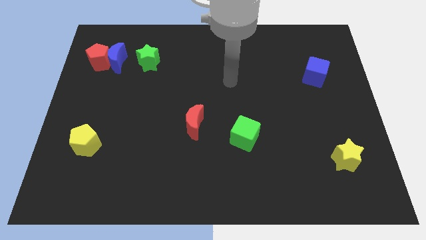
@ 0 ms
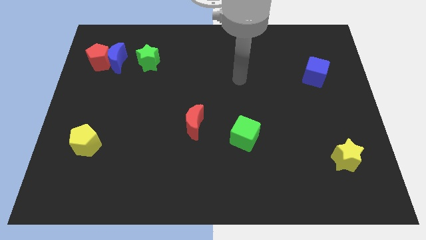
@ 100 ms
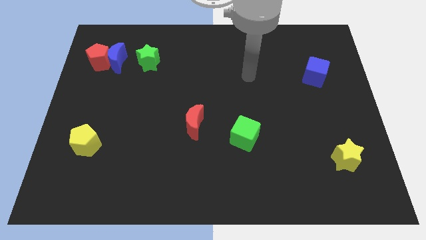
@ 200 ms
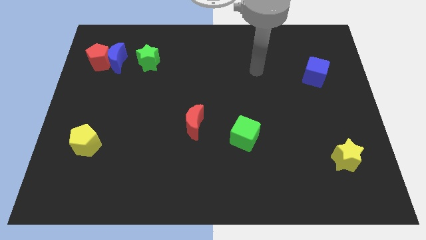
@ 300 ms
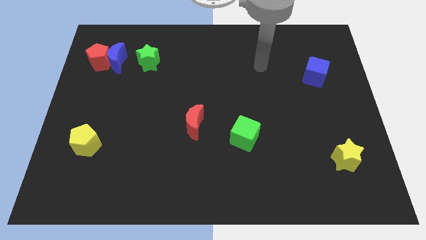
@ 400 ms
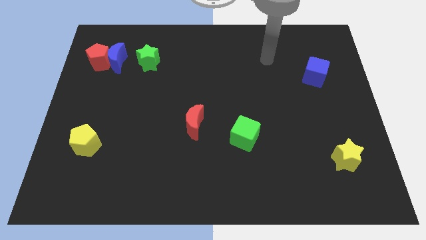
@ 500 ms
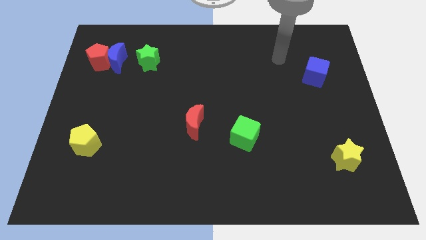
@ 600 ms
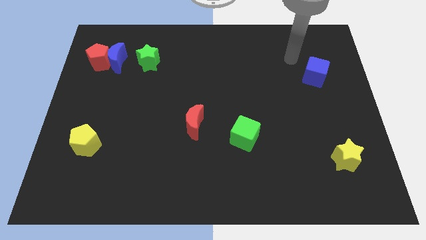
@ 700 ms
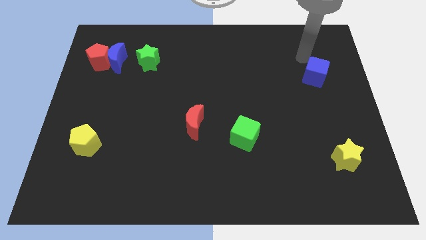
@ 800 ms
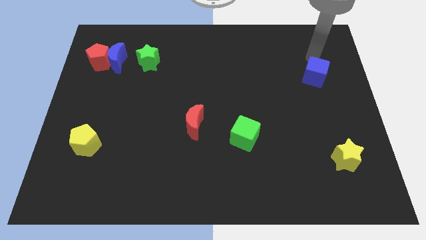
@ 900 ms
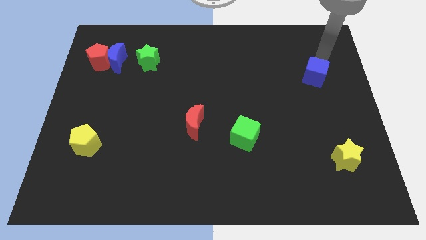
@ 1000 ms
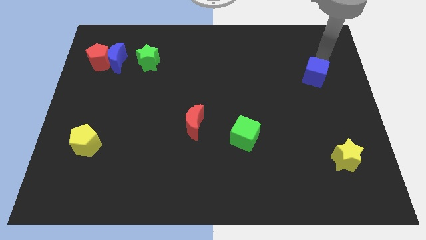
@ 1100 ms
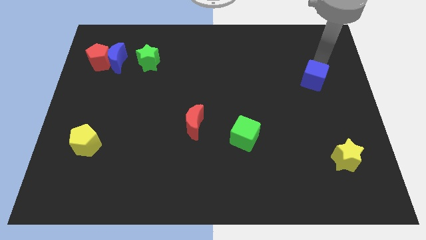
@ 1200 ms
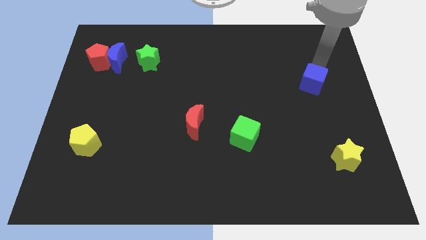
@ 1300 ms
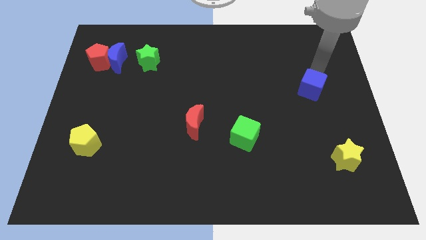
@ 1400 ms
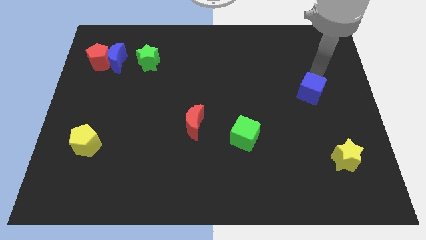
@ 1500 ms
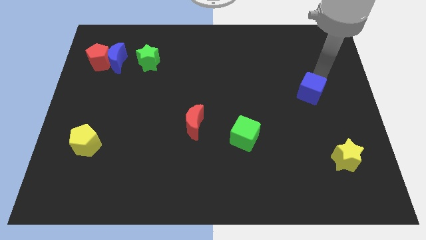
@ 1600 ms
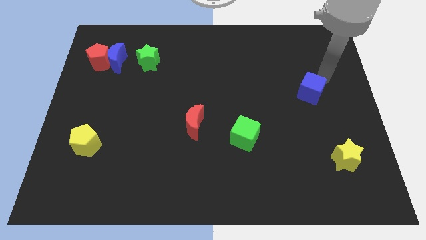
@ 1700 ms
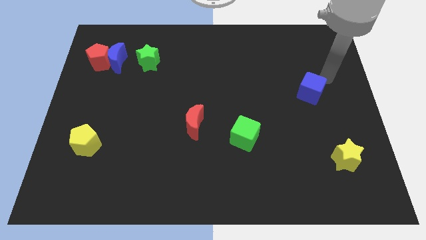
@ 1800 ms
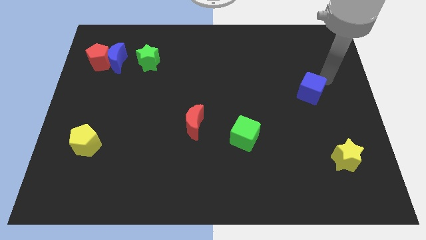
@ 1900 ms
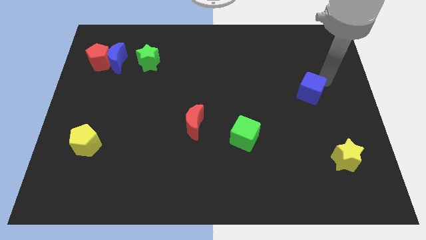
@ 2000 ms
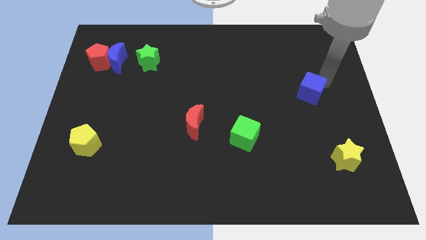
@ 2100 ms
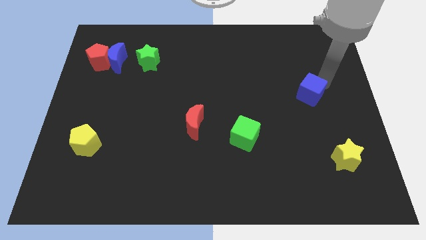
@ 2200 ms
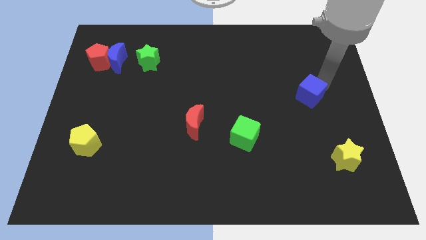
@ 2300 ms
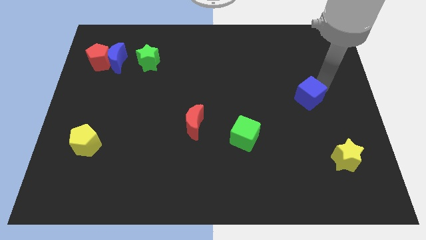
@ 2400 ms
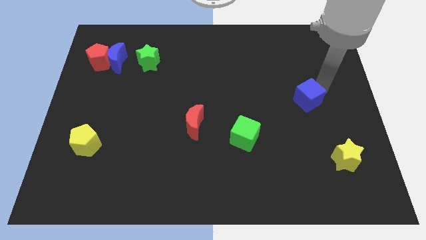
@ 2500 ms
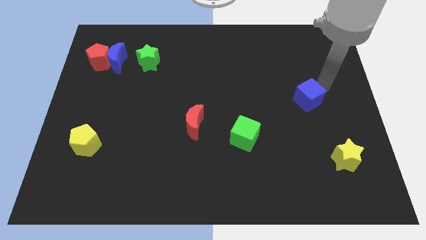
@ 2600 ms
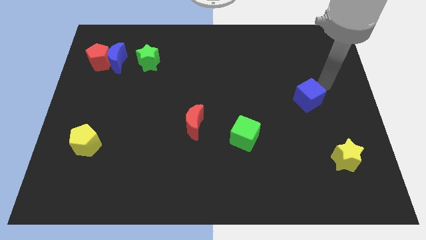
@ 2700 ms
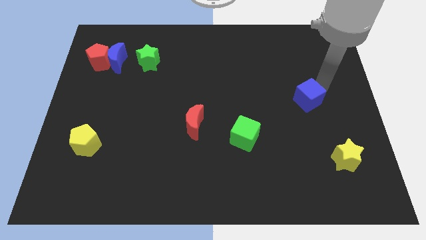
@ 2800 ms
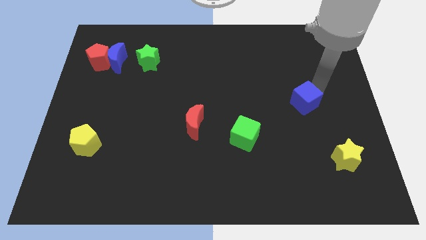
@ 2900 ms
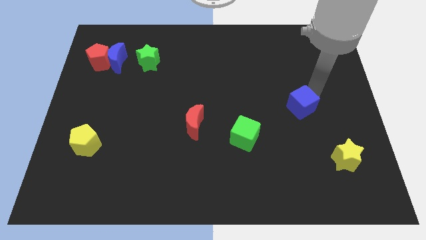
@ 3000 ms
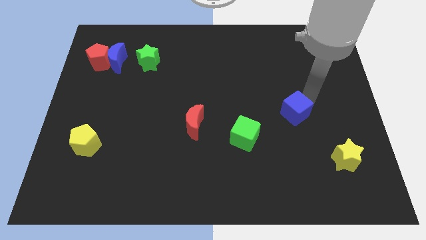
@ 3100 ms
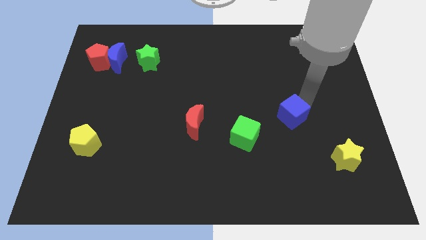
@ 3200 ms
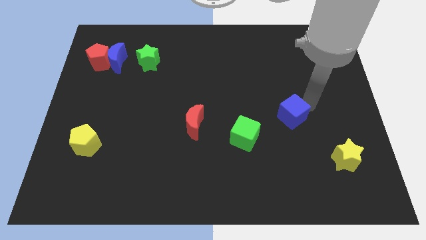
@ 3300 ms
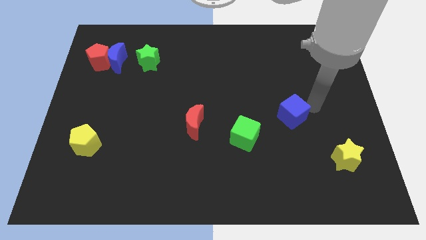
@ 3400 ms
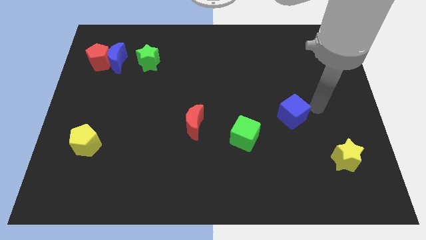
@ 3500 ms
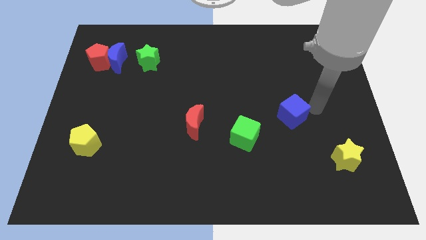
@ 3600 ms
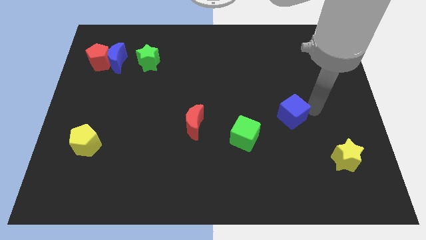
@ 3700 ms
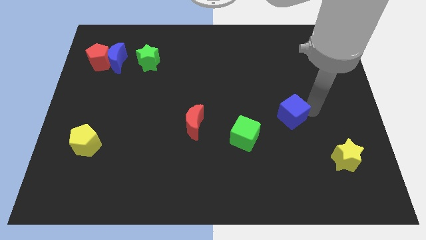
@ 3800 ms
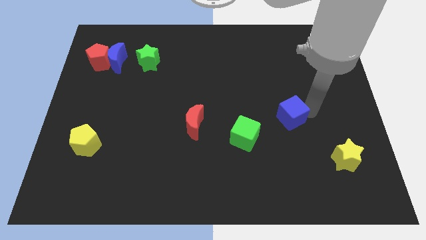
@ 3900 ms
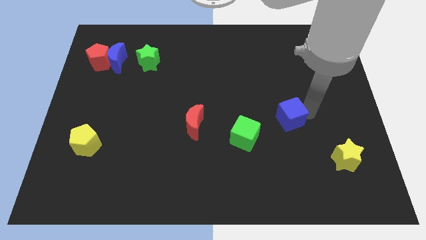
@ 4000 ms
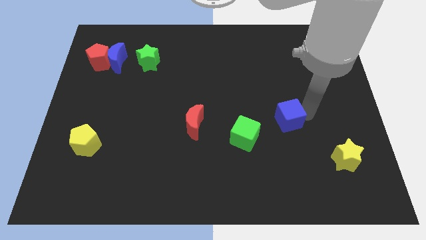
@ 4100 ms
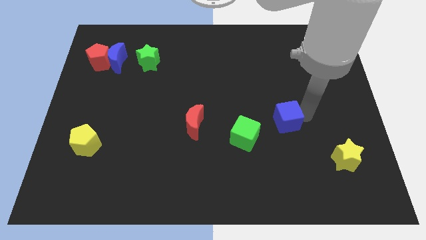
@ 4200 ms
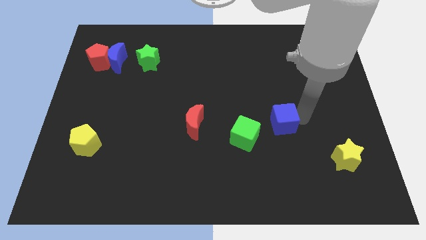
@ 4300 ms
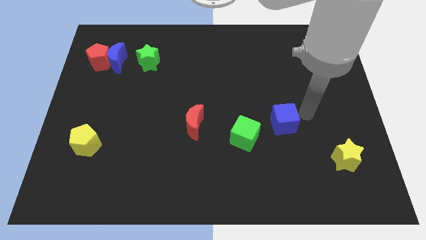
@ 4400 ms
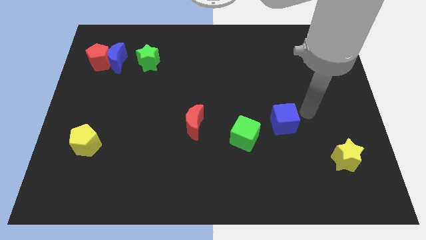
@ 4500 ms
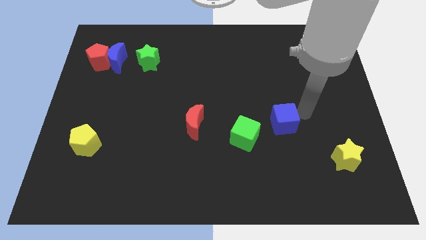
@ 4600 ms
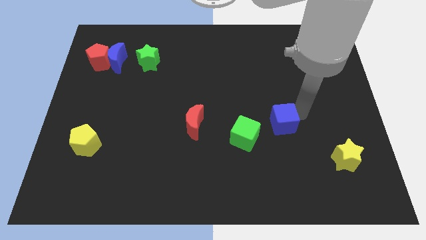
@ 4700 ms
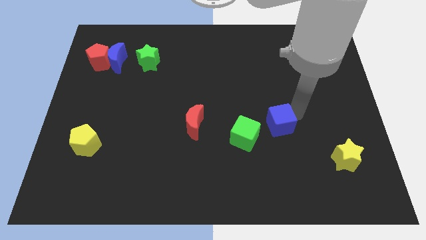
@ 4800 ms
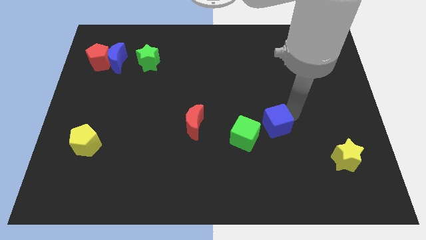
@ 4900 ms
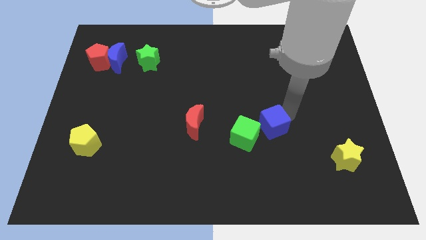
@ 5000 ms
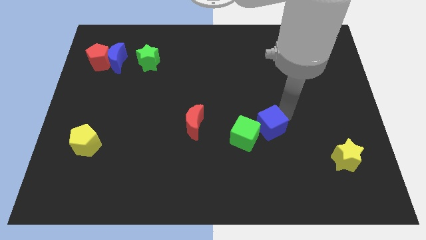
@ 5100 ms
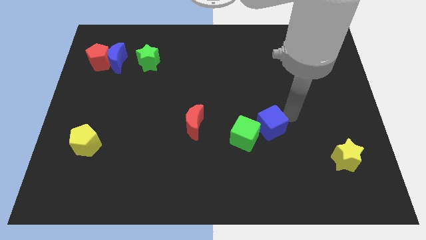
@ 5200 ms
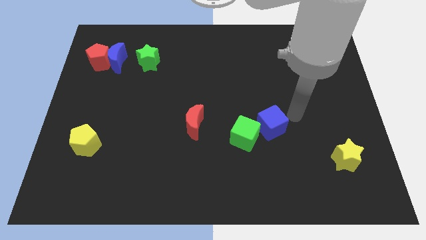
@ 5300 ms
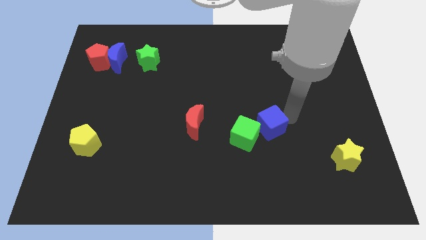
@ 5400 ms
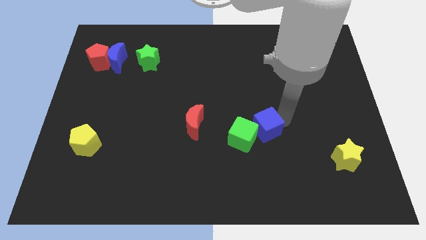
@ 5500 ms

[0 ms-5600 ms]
push the blue cube to the green cube
